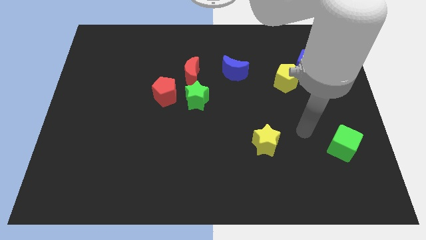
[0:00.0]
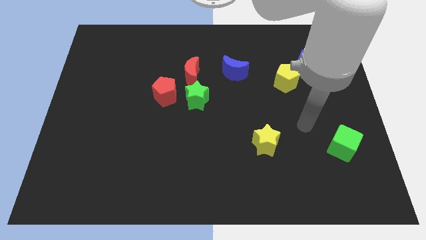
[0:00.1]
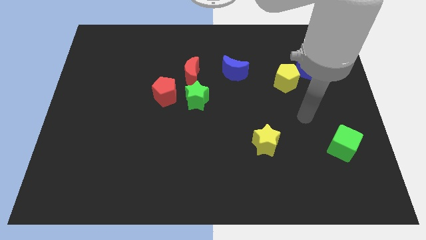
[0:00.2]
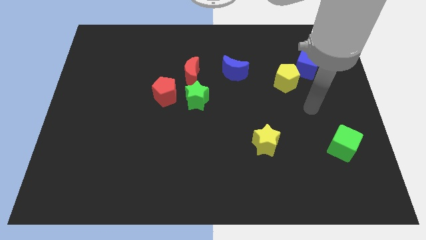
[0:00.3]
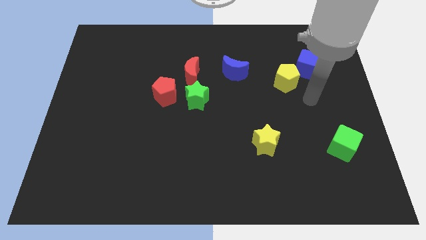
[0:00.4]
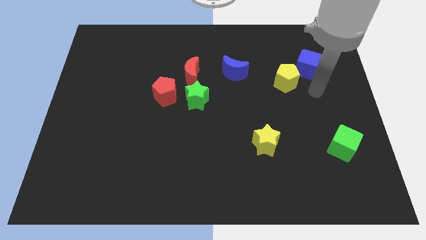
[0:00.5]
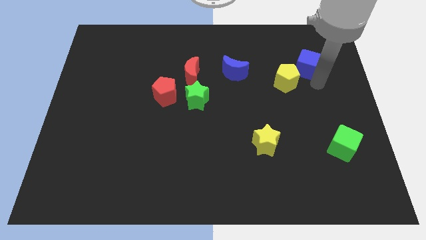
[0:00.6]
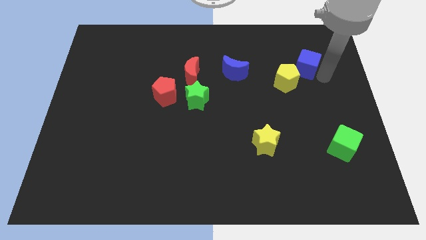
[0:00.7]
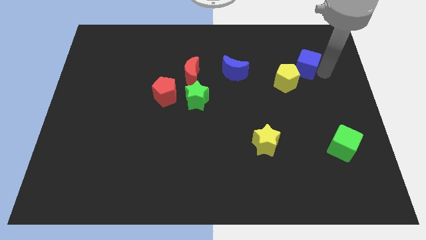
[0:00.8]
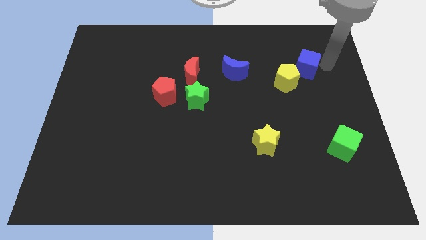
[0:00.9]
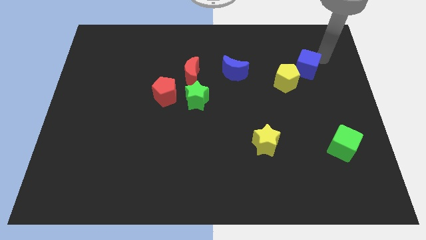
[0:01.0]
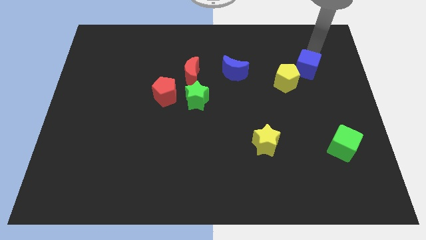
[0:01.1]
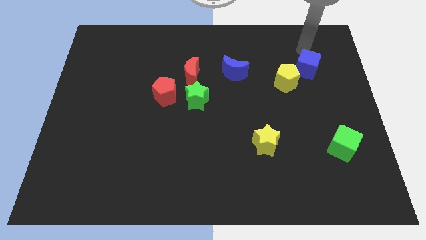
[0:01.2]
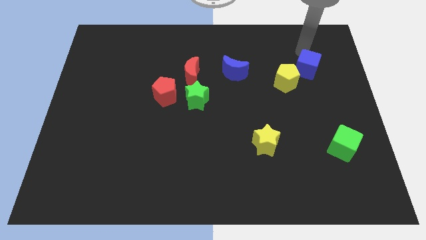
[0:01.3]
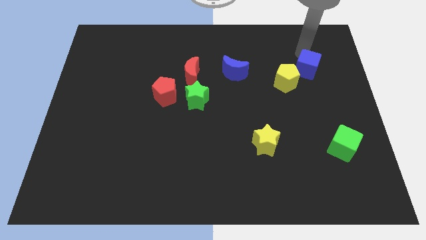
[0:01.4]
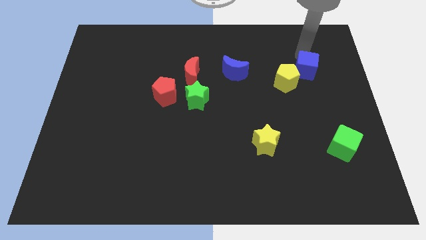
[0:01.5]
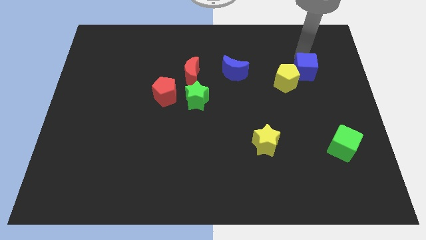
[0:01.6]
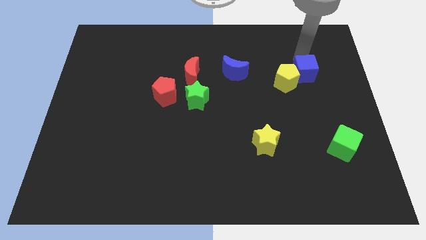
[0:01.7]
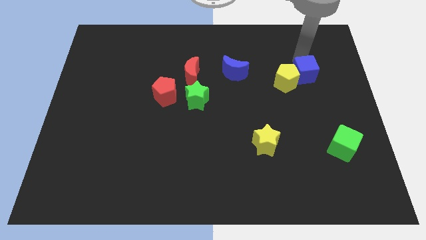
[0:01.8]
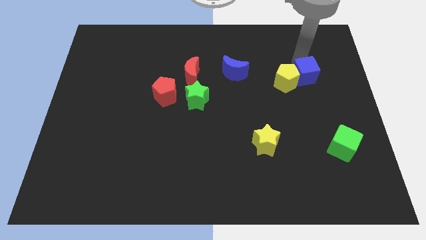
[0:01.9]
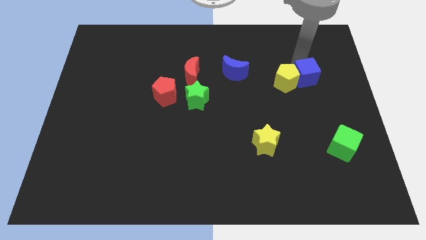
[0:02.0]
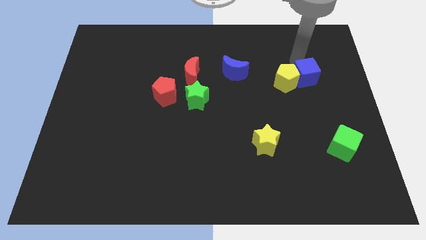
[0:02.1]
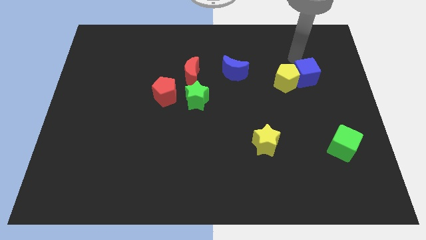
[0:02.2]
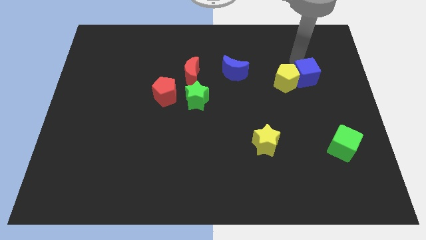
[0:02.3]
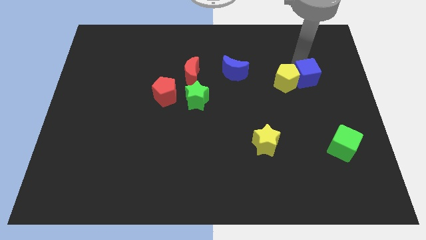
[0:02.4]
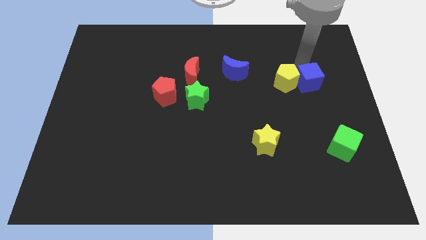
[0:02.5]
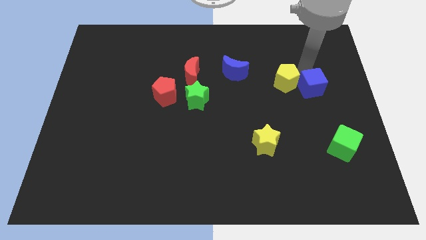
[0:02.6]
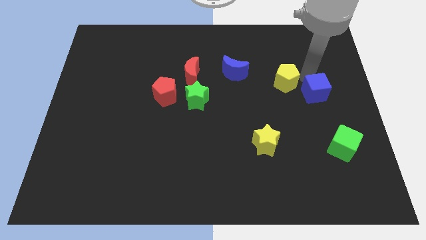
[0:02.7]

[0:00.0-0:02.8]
move the blue cube downwards a little

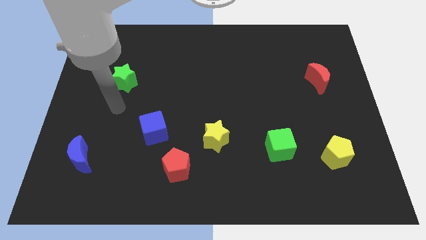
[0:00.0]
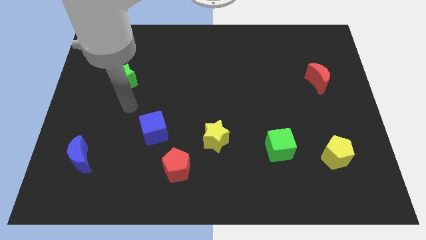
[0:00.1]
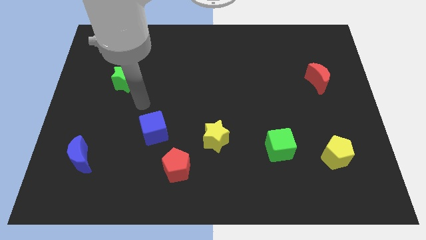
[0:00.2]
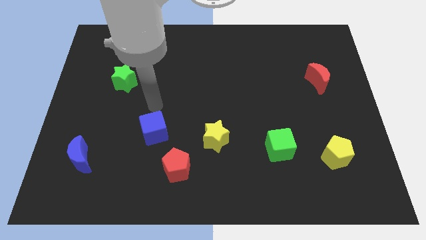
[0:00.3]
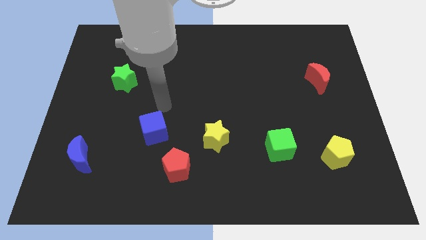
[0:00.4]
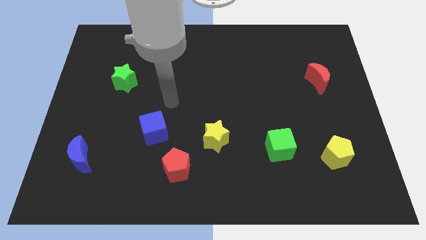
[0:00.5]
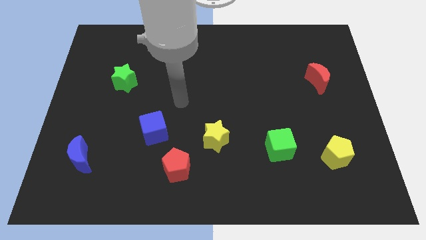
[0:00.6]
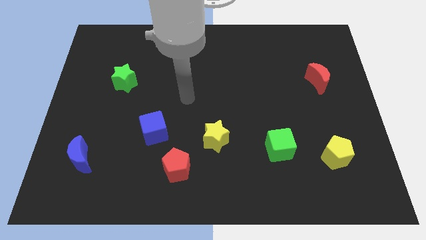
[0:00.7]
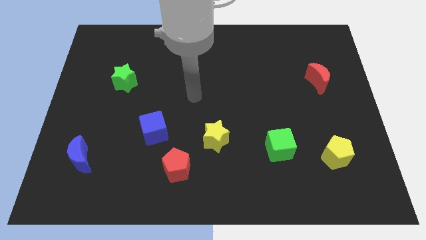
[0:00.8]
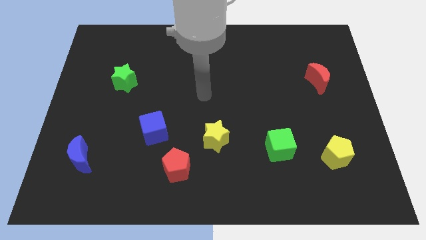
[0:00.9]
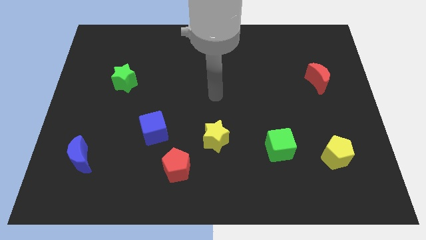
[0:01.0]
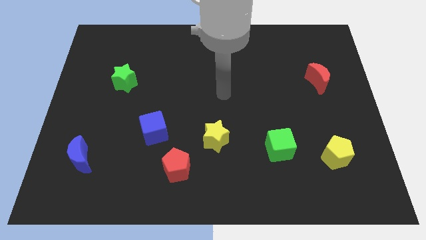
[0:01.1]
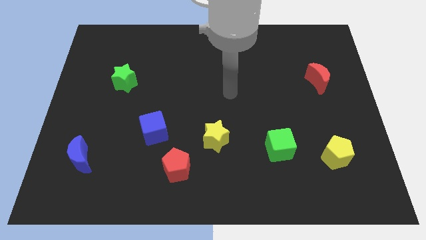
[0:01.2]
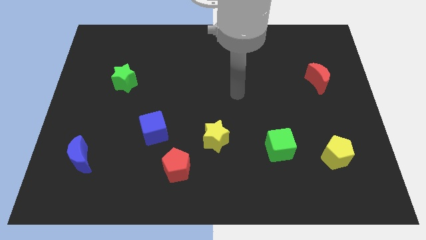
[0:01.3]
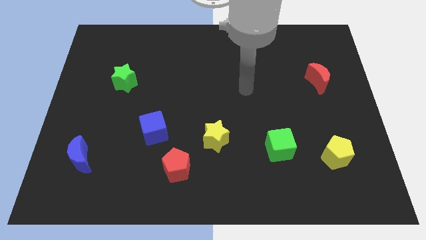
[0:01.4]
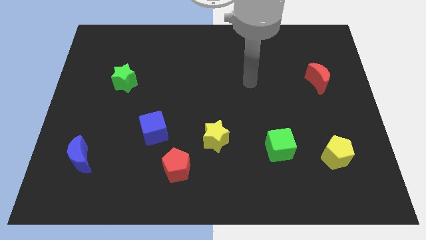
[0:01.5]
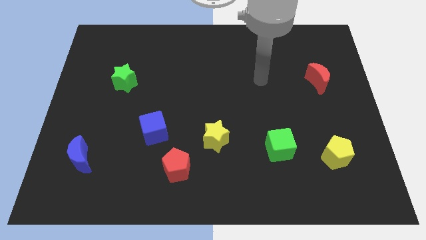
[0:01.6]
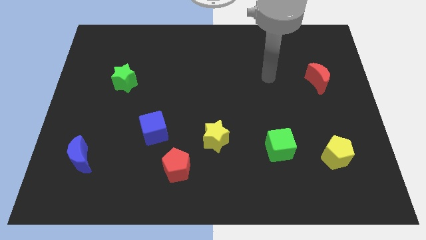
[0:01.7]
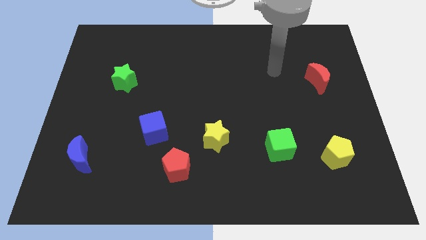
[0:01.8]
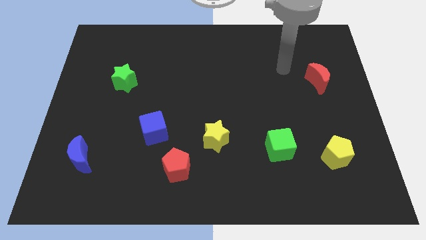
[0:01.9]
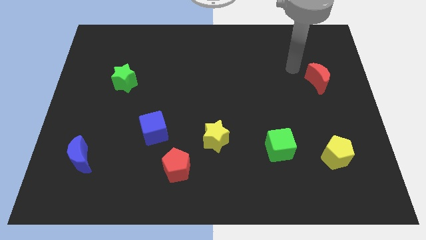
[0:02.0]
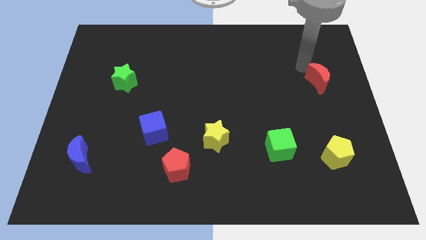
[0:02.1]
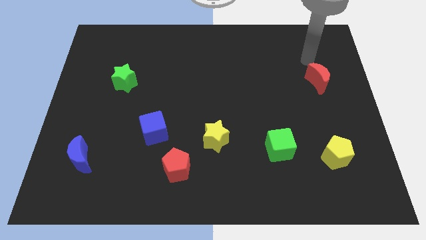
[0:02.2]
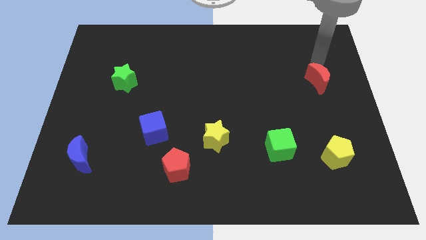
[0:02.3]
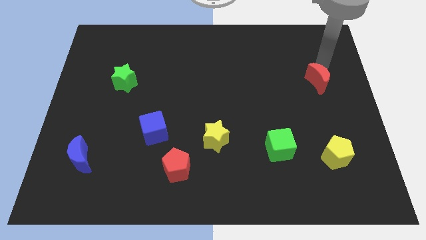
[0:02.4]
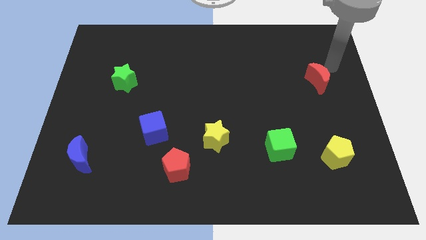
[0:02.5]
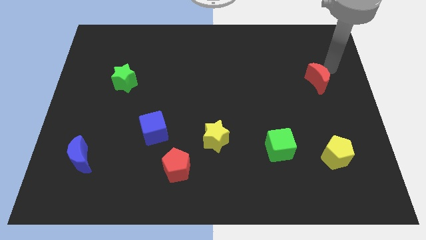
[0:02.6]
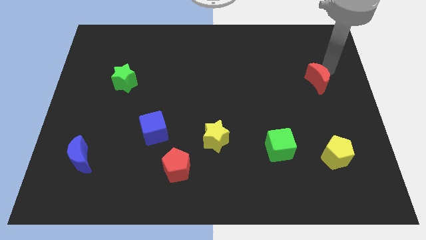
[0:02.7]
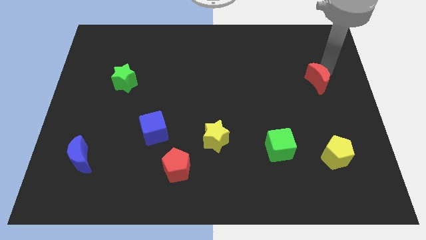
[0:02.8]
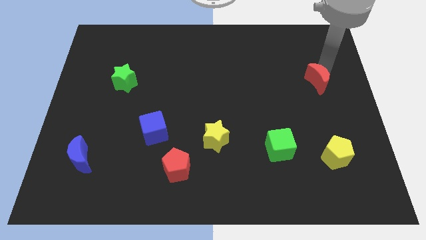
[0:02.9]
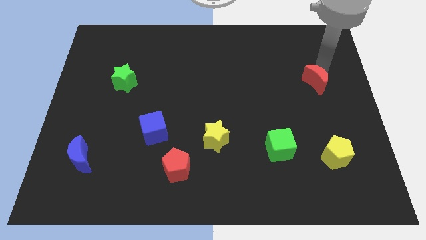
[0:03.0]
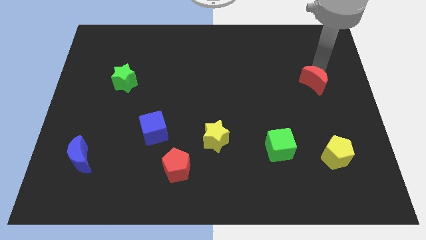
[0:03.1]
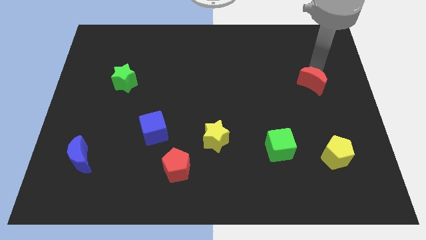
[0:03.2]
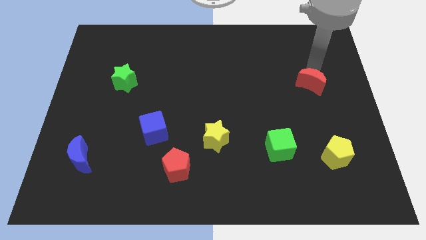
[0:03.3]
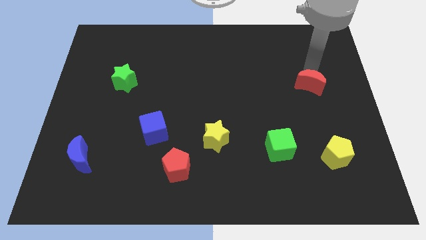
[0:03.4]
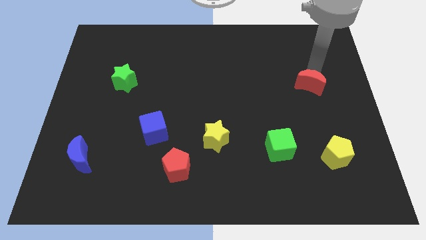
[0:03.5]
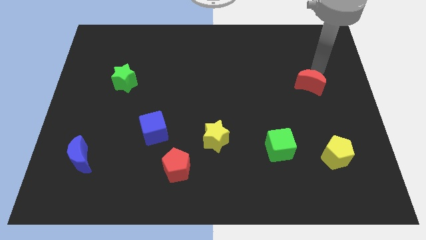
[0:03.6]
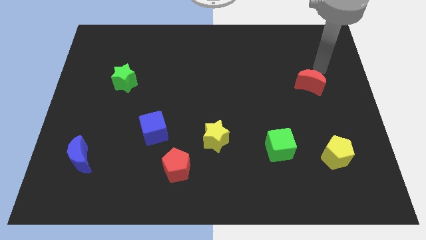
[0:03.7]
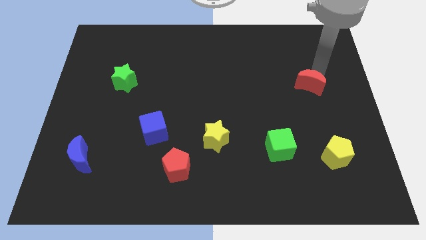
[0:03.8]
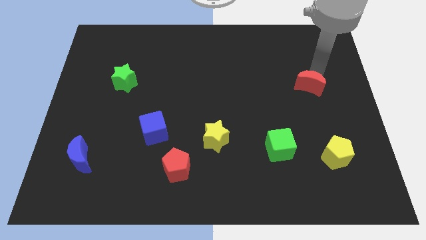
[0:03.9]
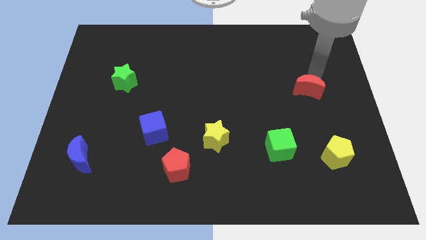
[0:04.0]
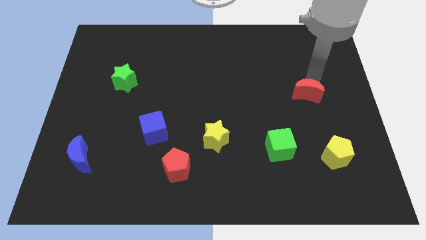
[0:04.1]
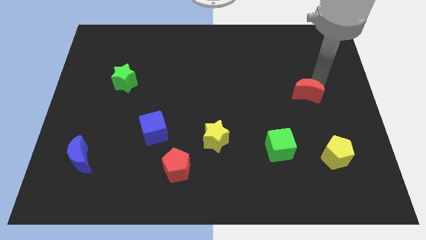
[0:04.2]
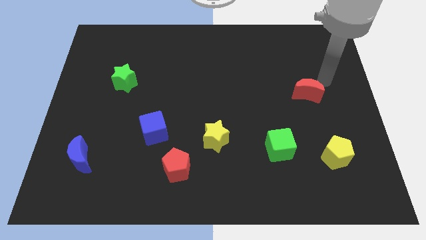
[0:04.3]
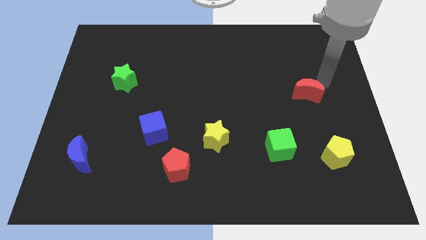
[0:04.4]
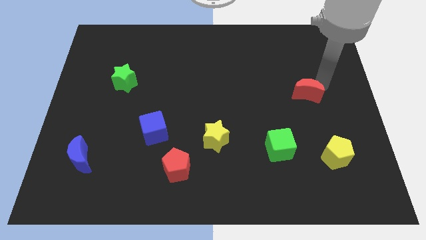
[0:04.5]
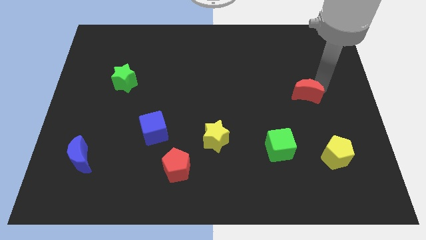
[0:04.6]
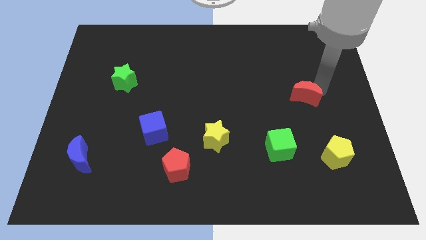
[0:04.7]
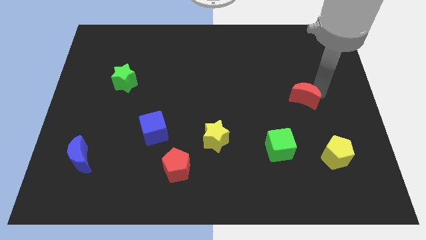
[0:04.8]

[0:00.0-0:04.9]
move the red moon a little bit downwards and then left
